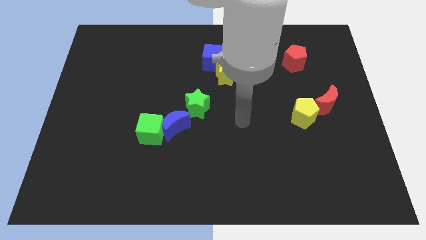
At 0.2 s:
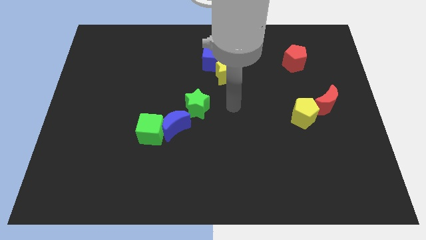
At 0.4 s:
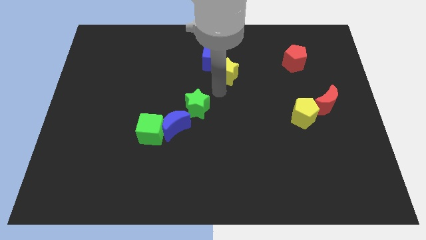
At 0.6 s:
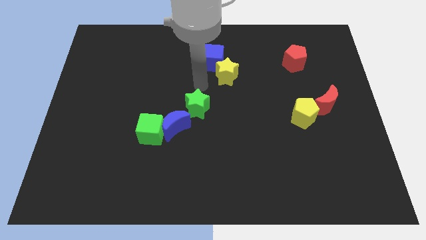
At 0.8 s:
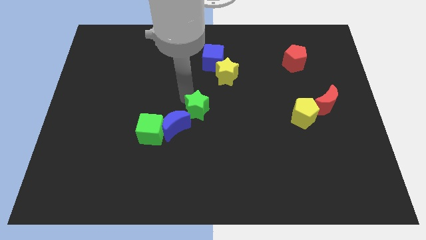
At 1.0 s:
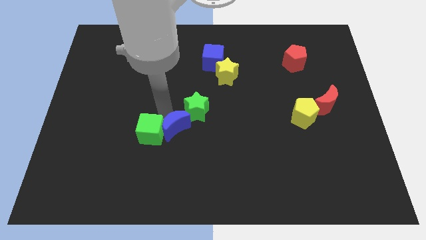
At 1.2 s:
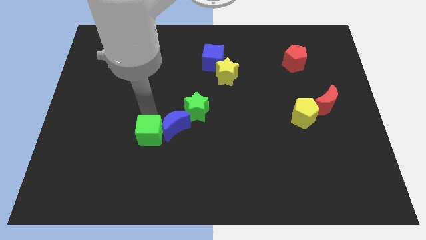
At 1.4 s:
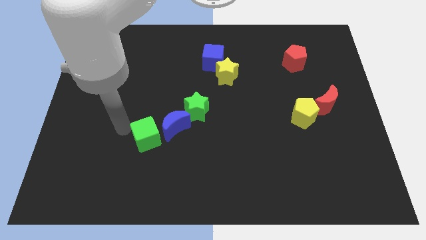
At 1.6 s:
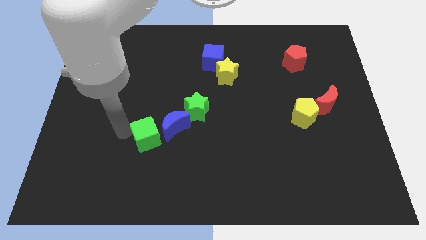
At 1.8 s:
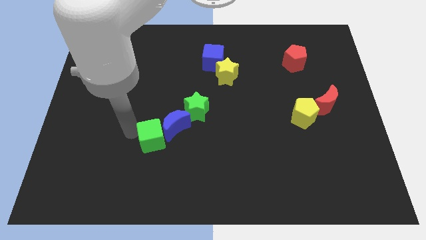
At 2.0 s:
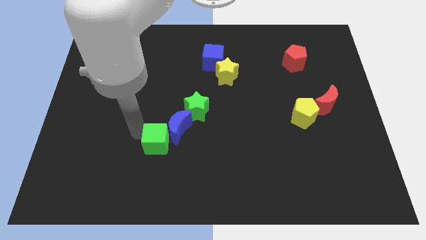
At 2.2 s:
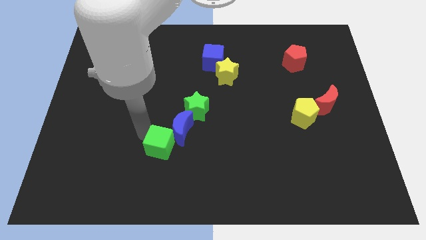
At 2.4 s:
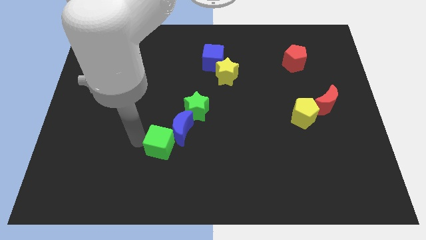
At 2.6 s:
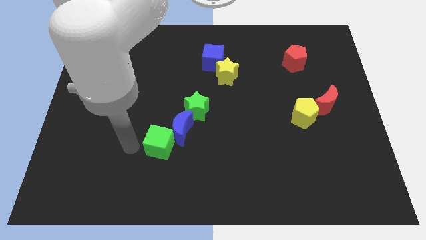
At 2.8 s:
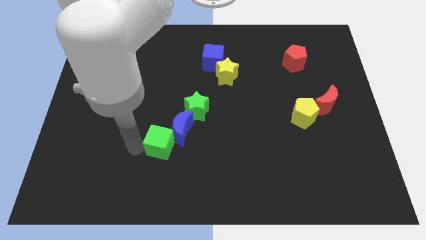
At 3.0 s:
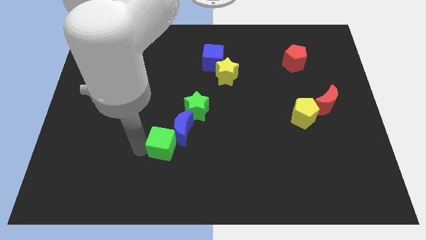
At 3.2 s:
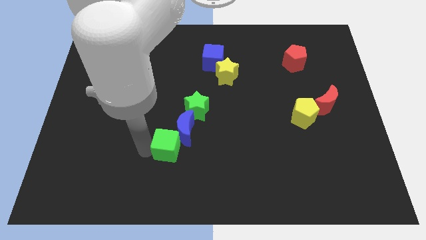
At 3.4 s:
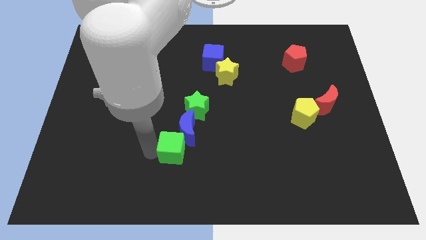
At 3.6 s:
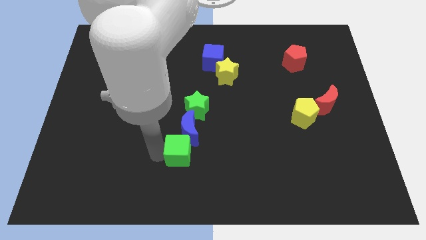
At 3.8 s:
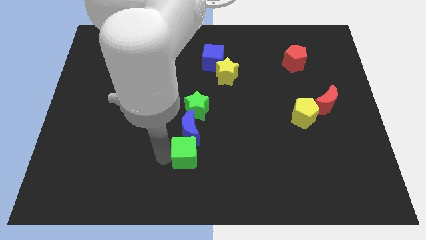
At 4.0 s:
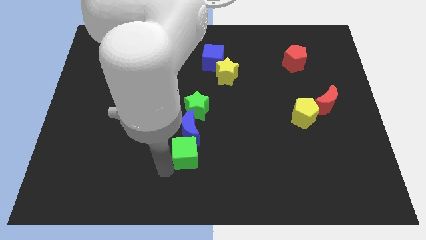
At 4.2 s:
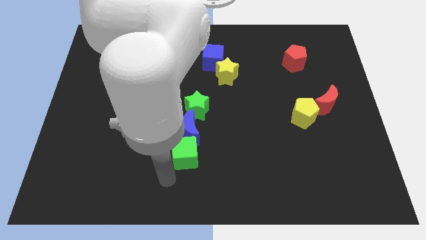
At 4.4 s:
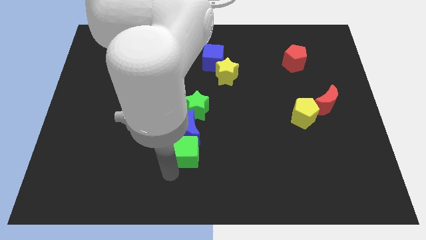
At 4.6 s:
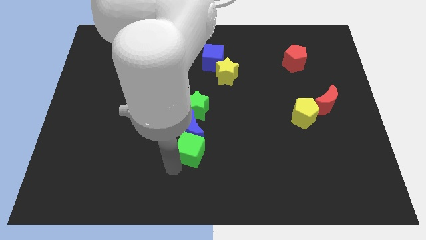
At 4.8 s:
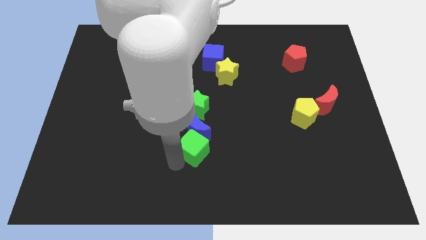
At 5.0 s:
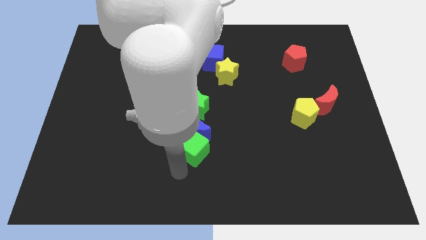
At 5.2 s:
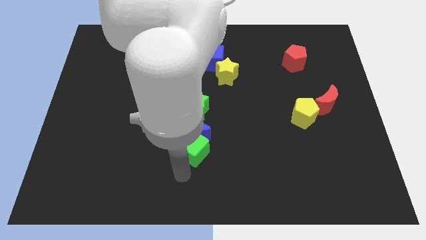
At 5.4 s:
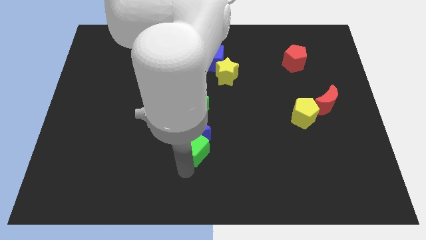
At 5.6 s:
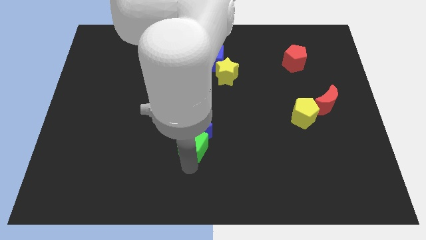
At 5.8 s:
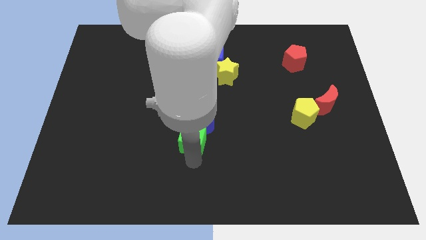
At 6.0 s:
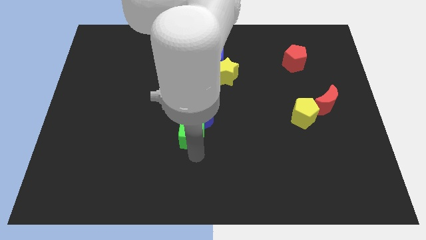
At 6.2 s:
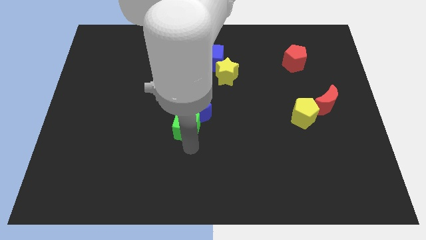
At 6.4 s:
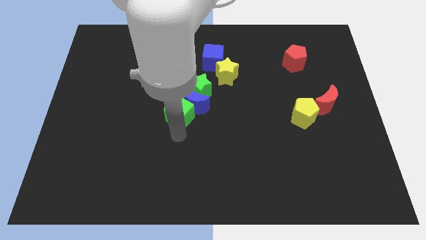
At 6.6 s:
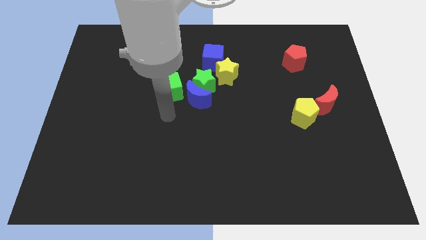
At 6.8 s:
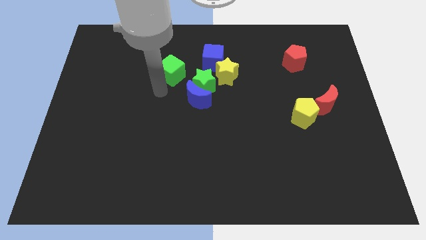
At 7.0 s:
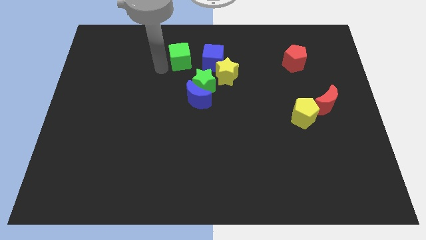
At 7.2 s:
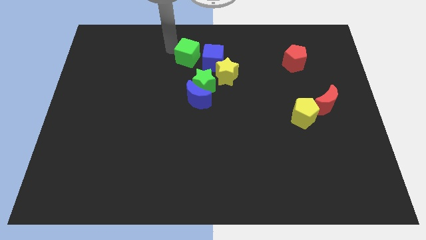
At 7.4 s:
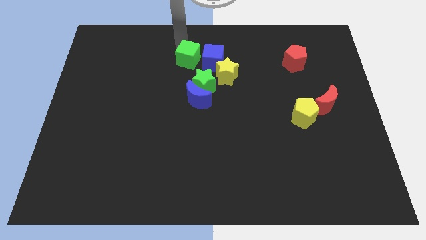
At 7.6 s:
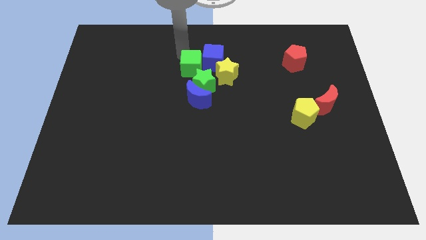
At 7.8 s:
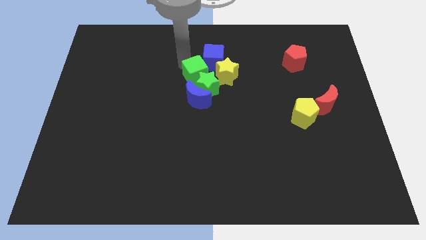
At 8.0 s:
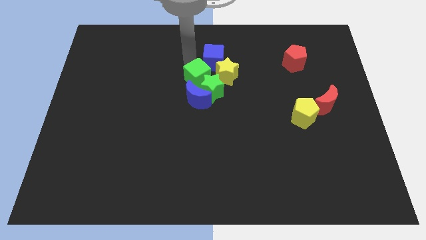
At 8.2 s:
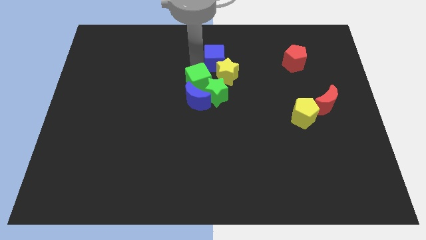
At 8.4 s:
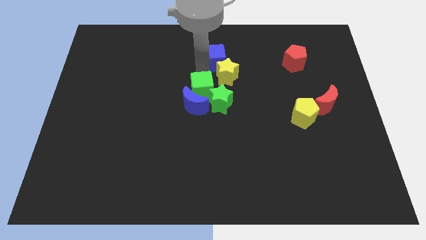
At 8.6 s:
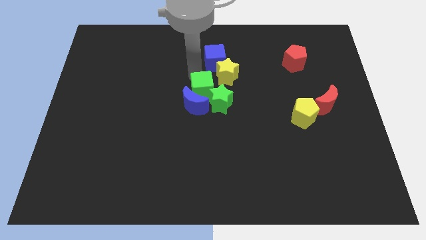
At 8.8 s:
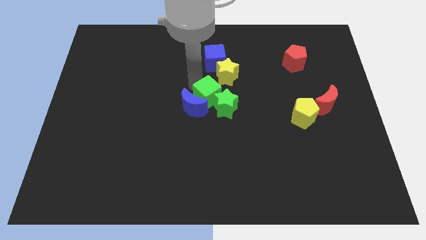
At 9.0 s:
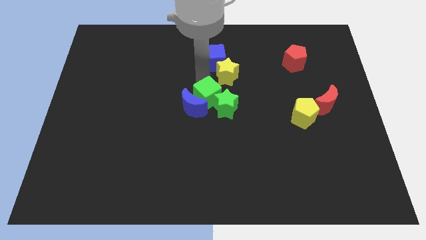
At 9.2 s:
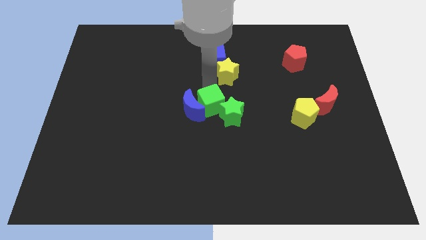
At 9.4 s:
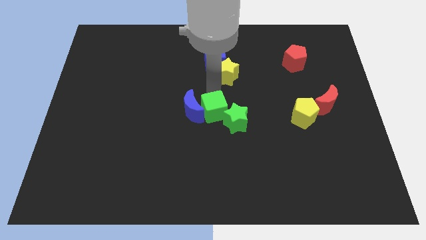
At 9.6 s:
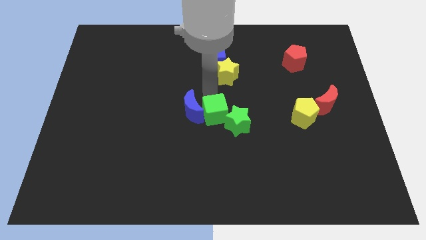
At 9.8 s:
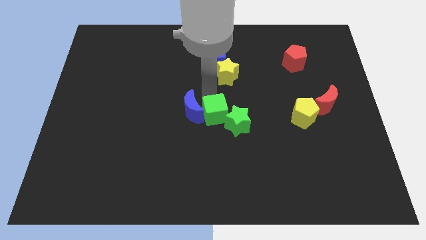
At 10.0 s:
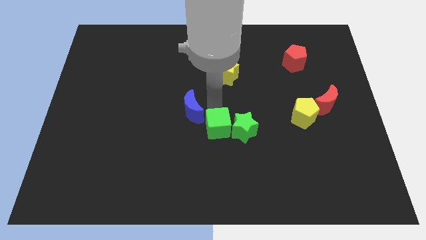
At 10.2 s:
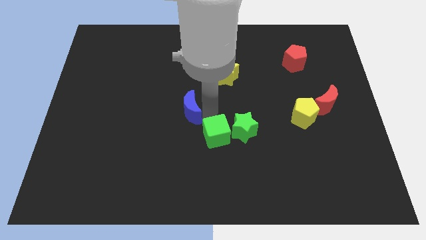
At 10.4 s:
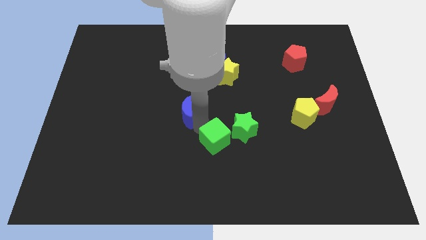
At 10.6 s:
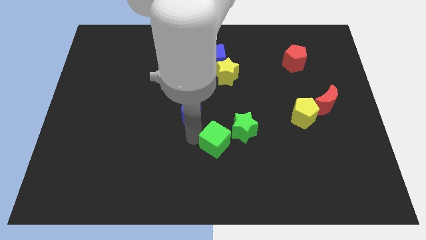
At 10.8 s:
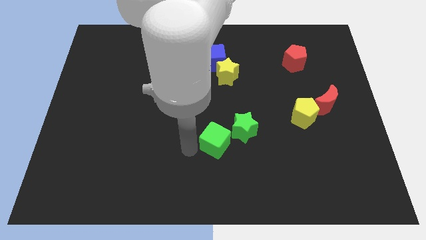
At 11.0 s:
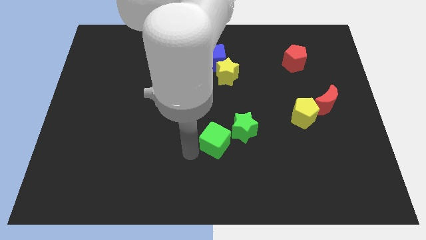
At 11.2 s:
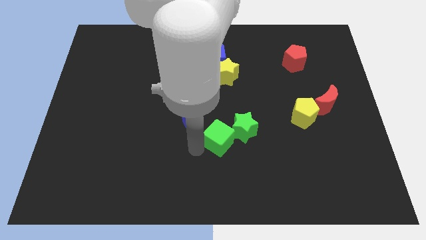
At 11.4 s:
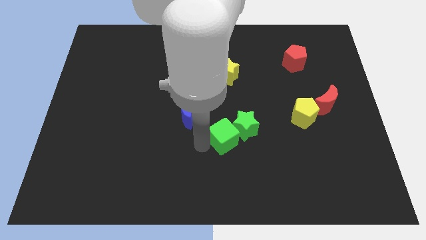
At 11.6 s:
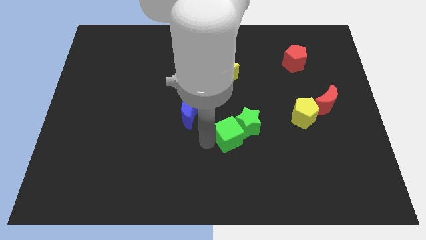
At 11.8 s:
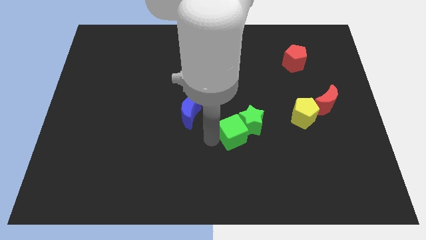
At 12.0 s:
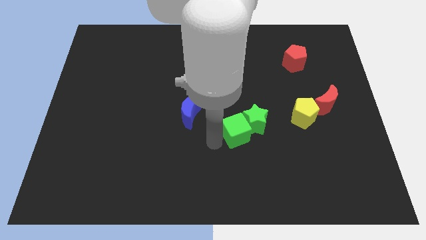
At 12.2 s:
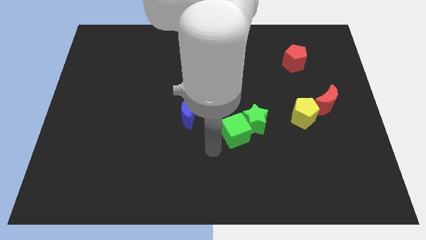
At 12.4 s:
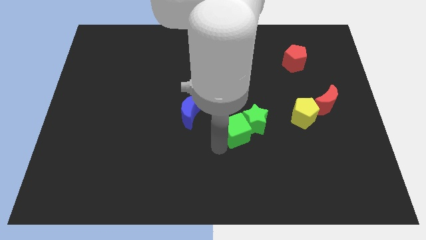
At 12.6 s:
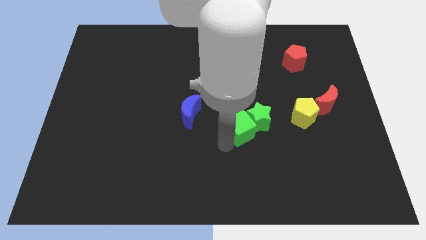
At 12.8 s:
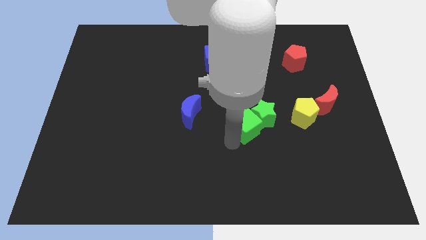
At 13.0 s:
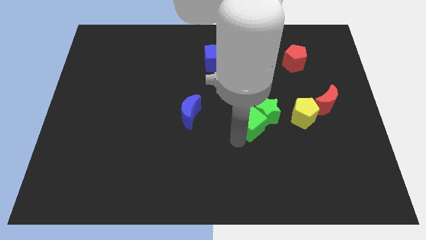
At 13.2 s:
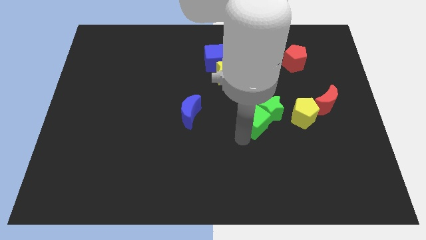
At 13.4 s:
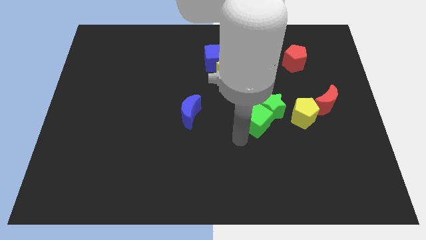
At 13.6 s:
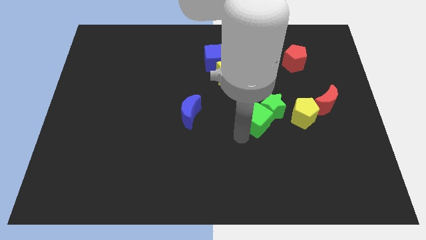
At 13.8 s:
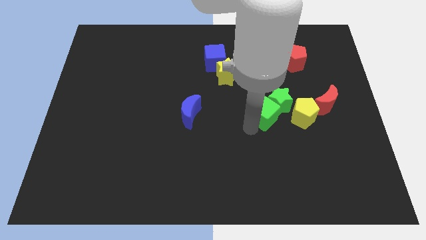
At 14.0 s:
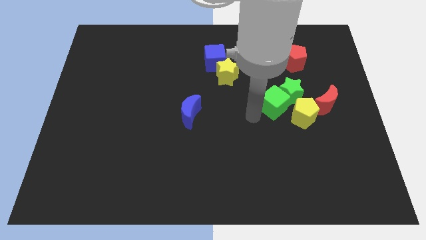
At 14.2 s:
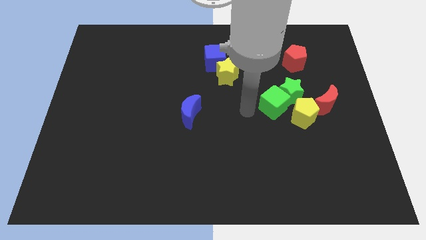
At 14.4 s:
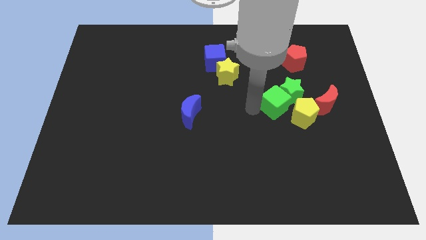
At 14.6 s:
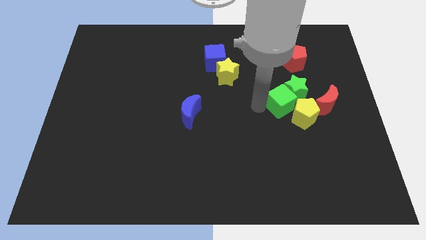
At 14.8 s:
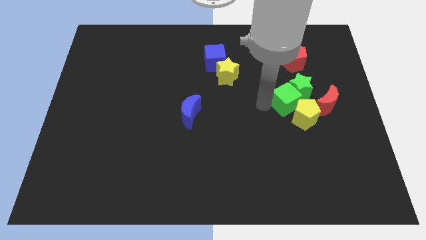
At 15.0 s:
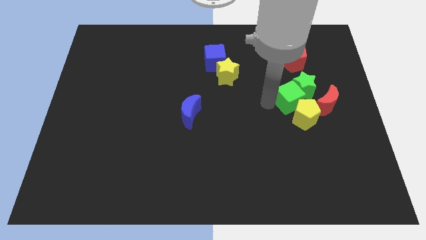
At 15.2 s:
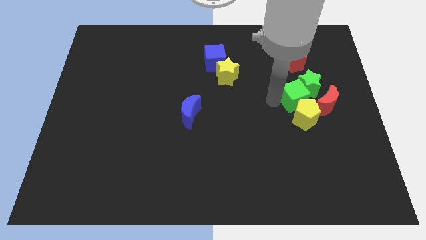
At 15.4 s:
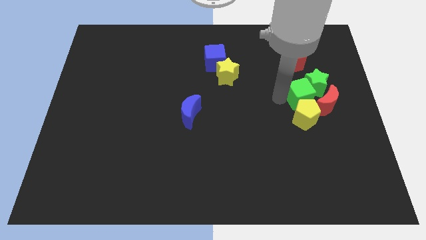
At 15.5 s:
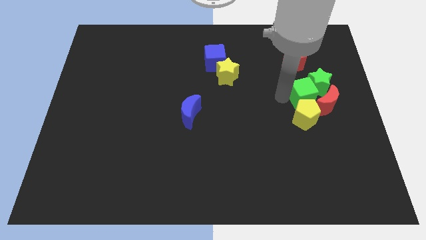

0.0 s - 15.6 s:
push the green cube next to the red moon
